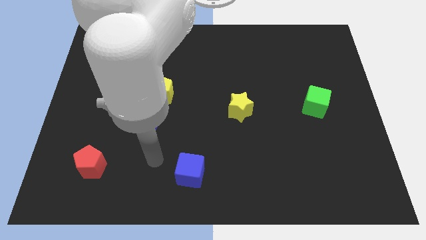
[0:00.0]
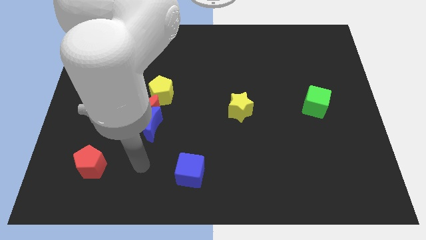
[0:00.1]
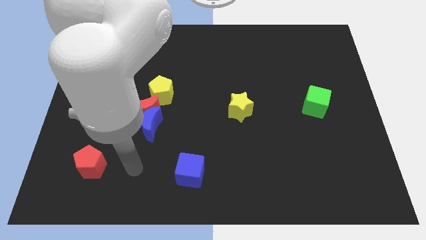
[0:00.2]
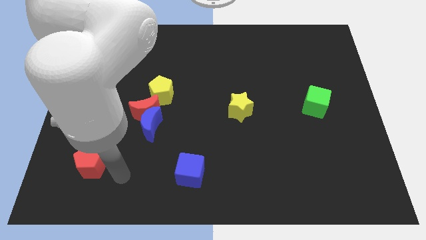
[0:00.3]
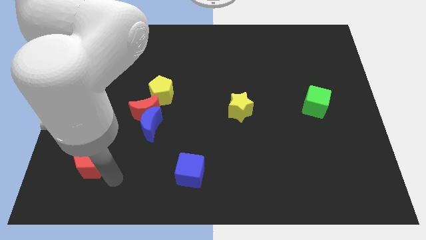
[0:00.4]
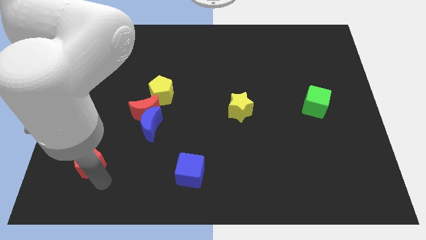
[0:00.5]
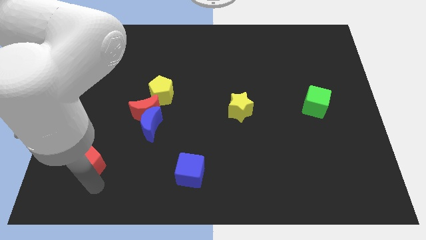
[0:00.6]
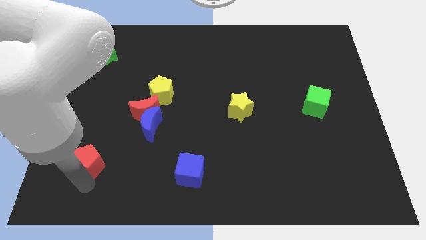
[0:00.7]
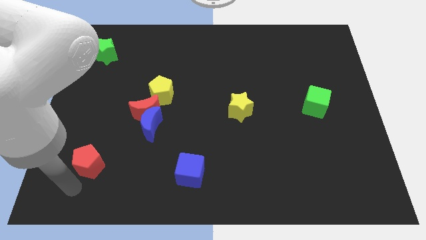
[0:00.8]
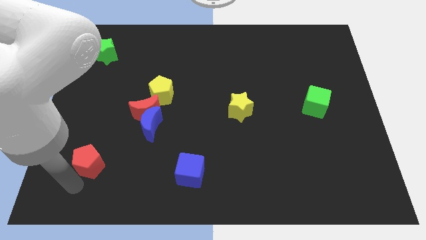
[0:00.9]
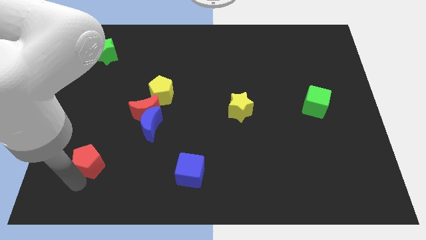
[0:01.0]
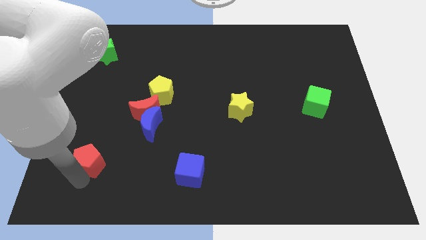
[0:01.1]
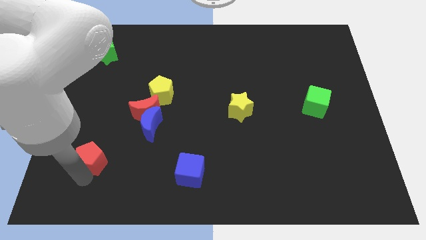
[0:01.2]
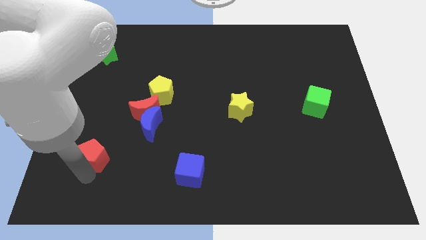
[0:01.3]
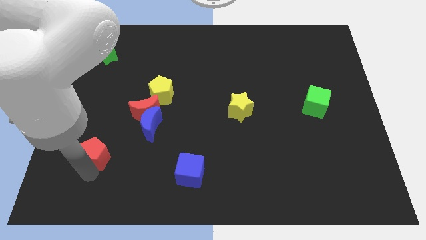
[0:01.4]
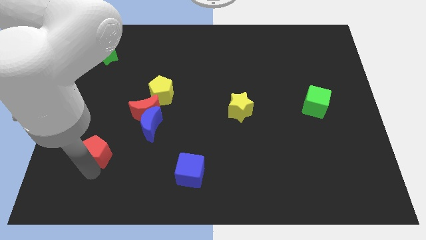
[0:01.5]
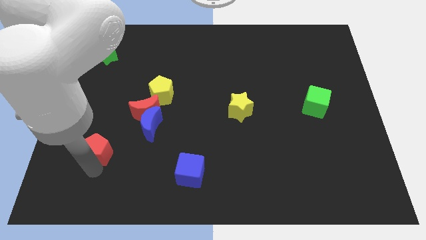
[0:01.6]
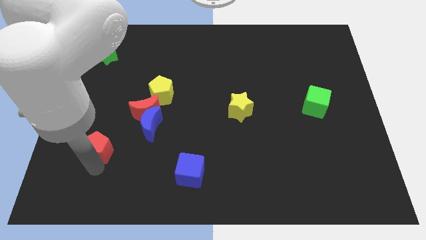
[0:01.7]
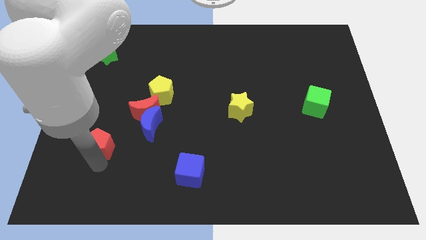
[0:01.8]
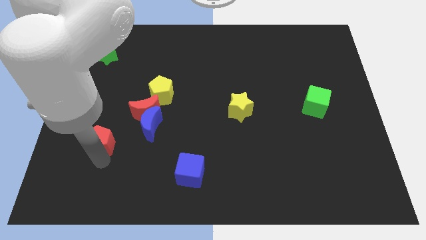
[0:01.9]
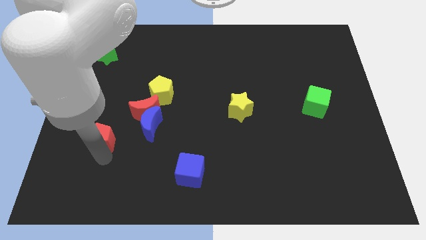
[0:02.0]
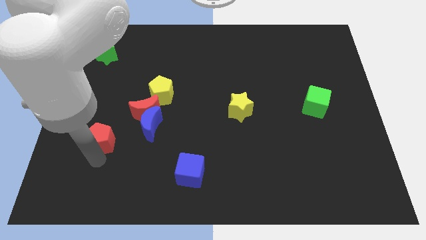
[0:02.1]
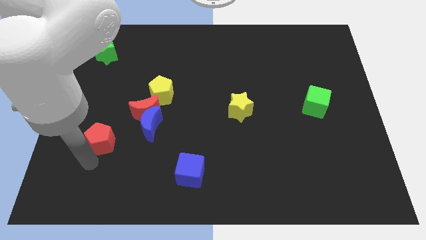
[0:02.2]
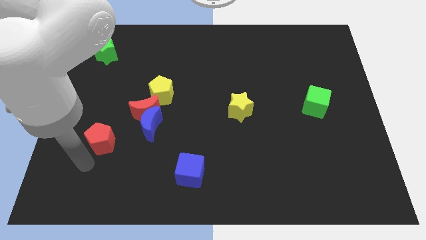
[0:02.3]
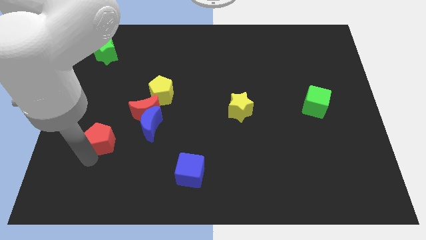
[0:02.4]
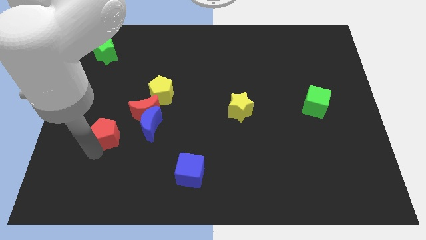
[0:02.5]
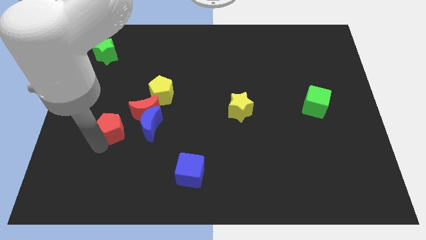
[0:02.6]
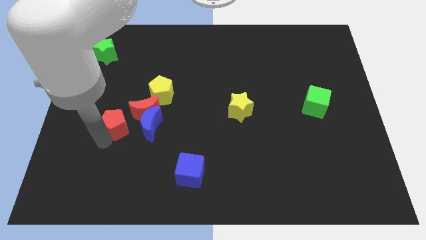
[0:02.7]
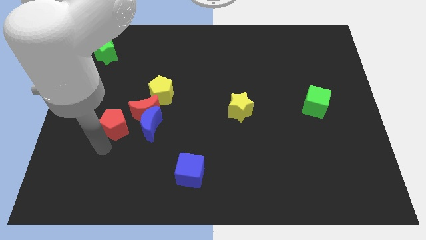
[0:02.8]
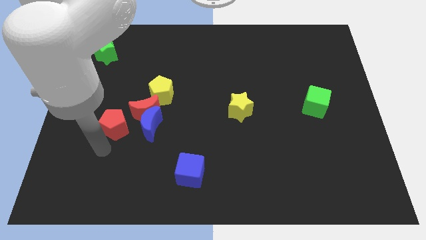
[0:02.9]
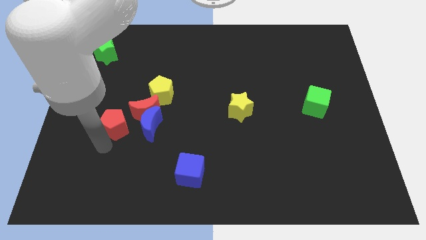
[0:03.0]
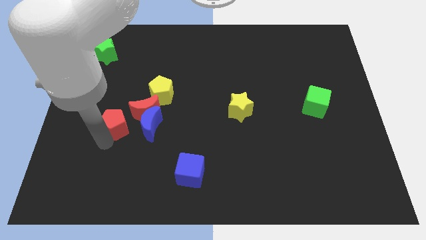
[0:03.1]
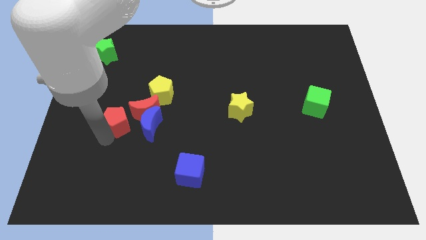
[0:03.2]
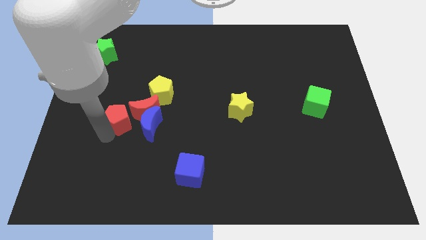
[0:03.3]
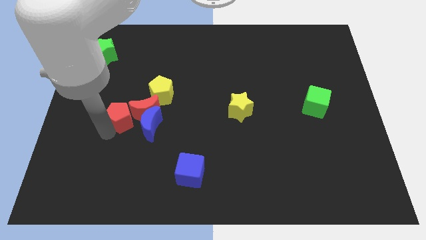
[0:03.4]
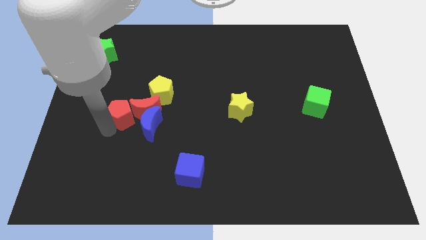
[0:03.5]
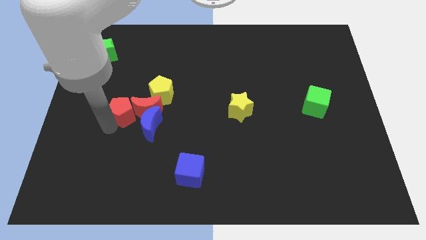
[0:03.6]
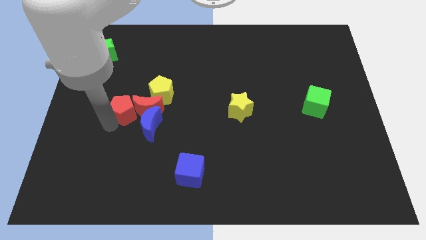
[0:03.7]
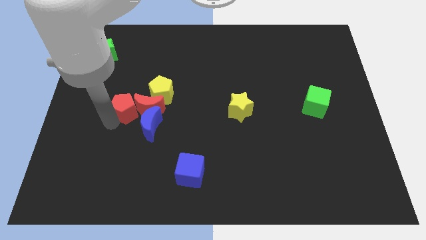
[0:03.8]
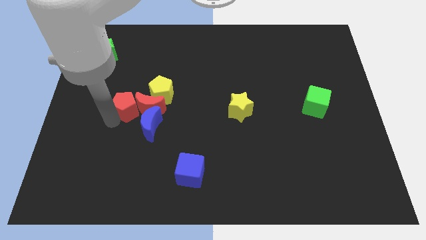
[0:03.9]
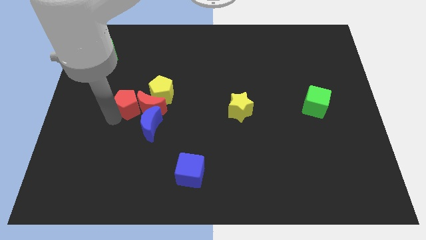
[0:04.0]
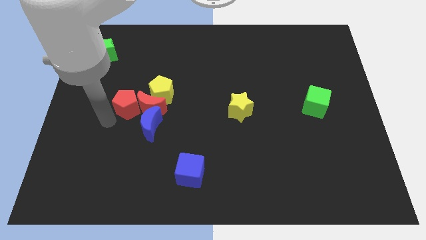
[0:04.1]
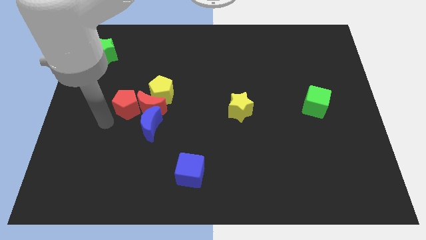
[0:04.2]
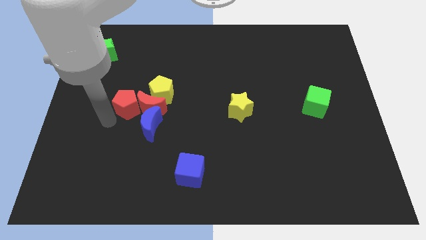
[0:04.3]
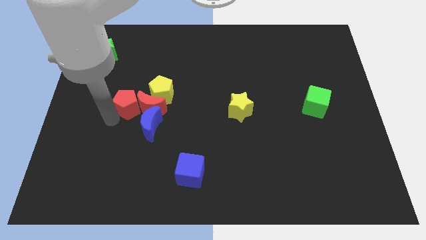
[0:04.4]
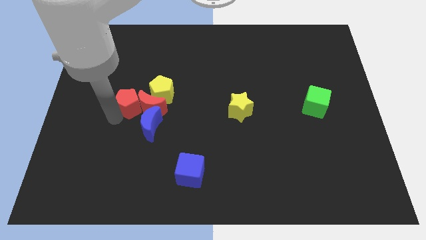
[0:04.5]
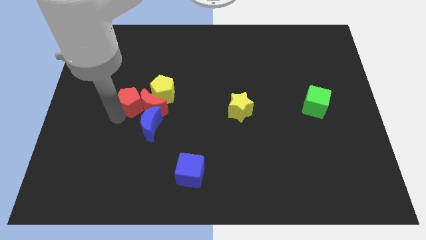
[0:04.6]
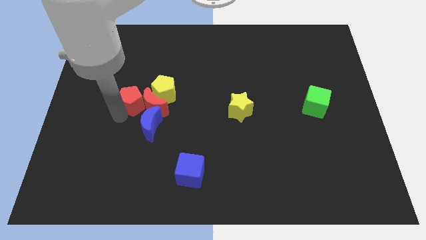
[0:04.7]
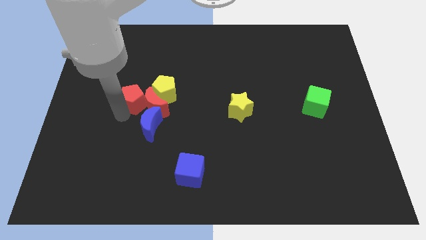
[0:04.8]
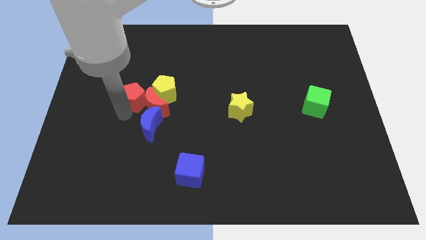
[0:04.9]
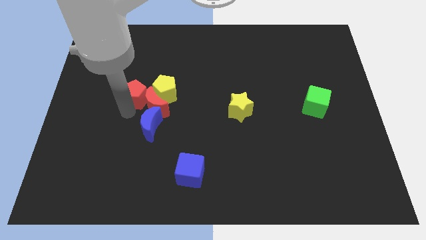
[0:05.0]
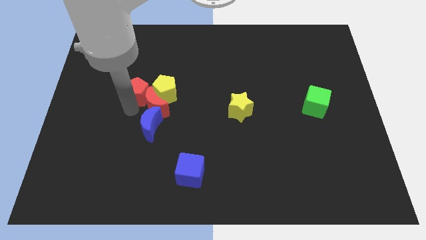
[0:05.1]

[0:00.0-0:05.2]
move the red pentagon to the top of the red moon

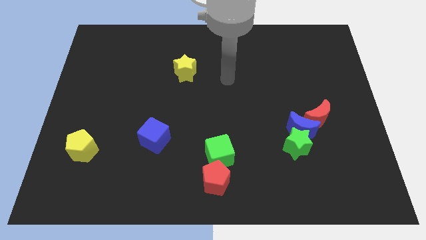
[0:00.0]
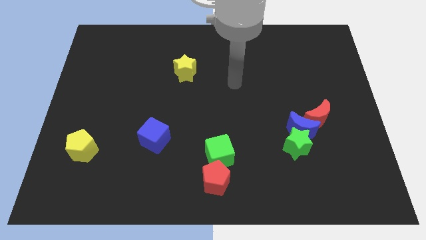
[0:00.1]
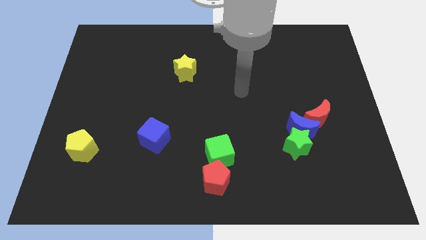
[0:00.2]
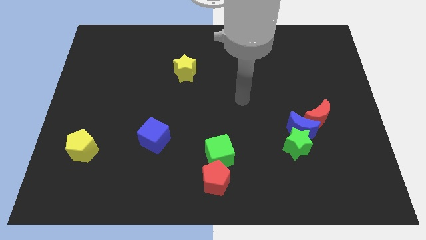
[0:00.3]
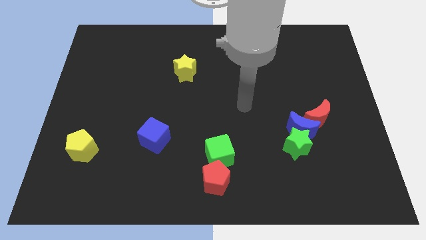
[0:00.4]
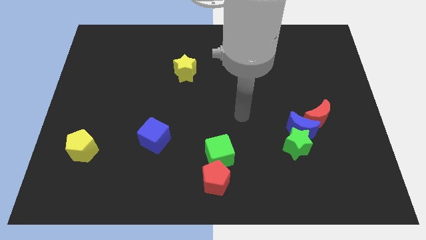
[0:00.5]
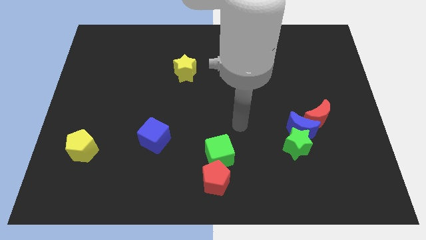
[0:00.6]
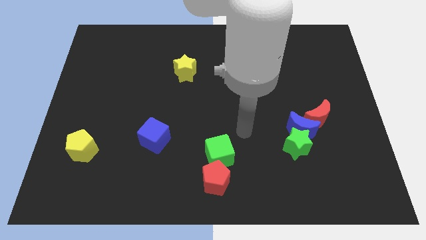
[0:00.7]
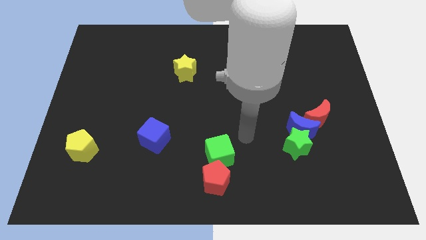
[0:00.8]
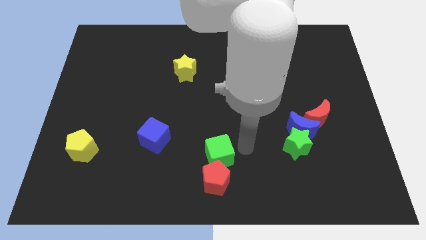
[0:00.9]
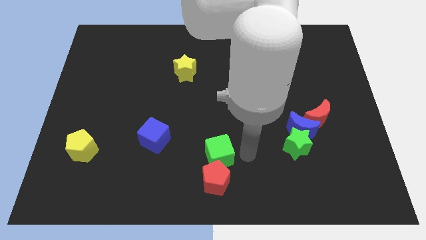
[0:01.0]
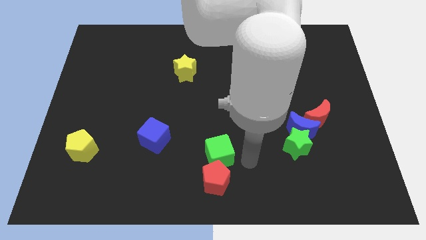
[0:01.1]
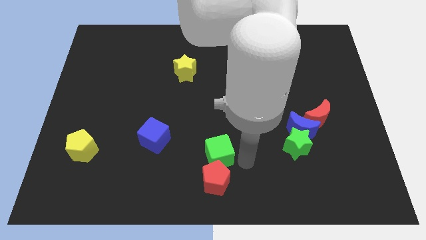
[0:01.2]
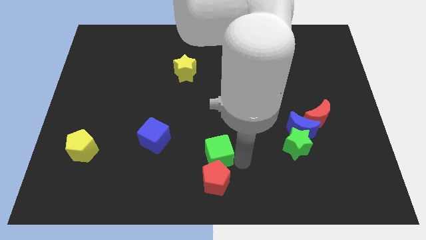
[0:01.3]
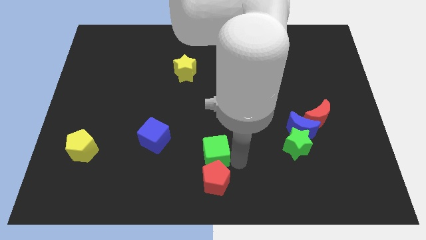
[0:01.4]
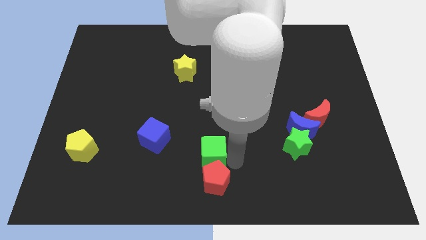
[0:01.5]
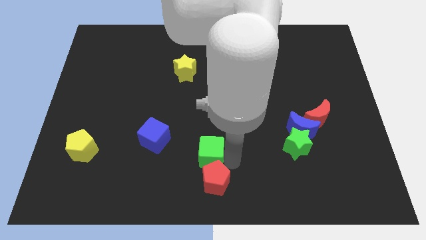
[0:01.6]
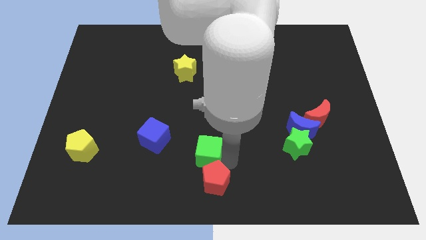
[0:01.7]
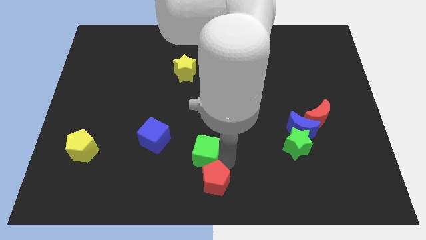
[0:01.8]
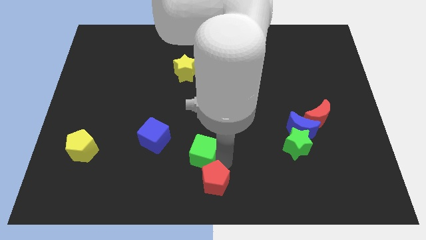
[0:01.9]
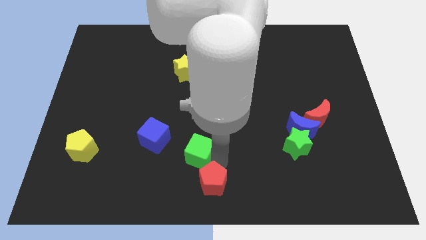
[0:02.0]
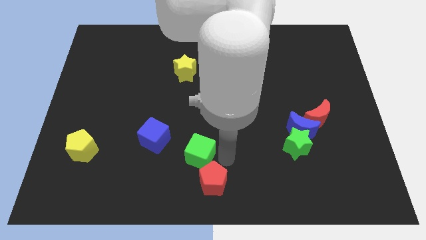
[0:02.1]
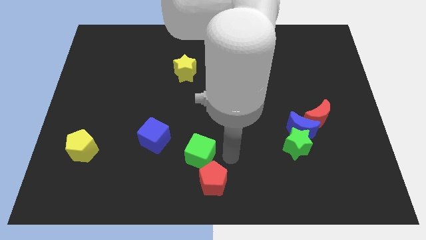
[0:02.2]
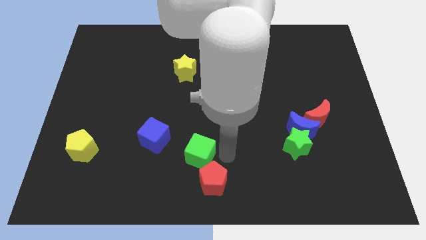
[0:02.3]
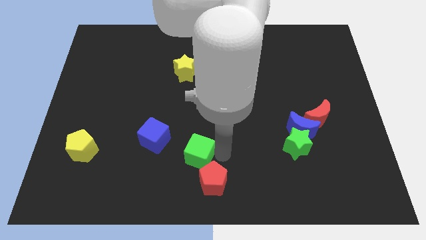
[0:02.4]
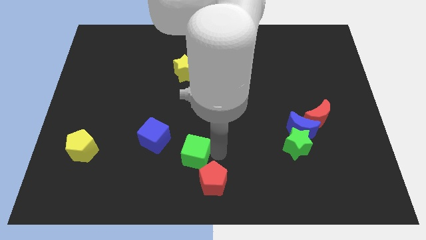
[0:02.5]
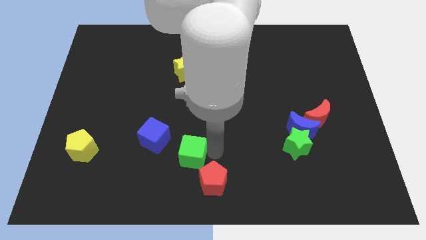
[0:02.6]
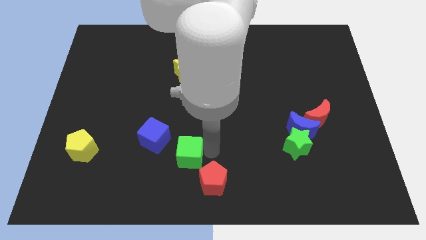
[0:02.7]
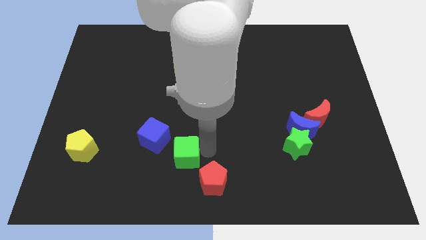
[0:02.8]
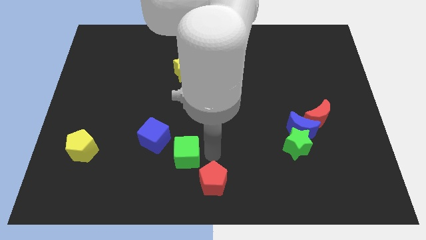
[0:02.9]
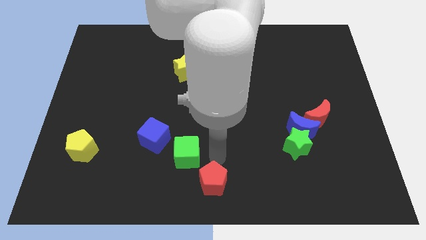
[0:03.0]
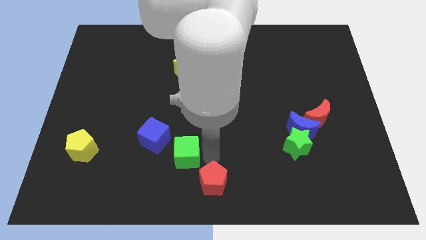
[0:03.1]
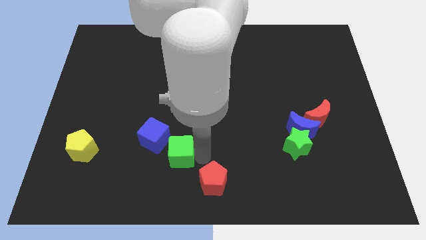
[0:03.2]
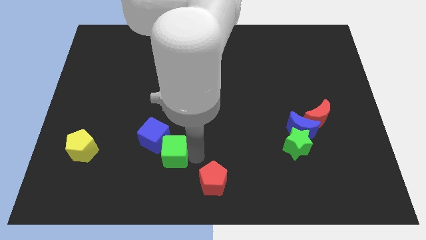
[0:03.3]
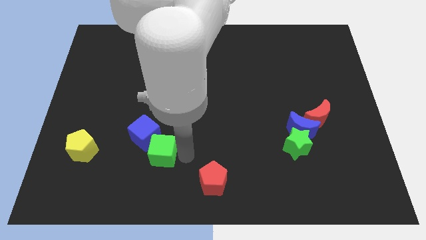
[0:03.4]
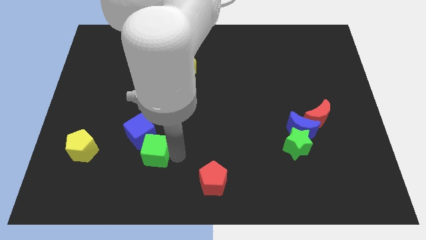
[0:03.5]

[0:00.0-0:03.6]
slide the green cube right of the yellow pentagon
